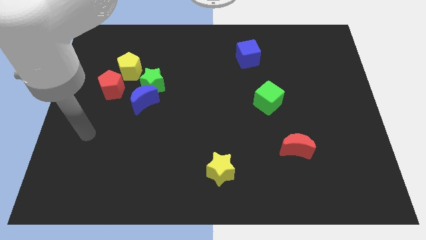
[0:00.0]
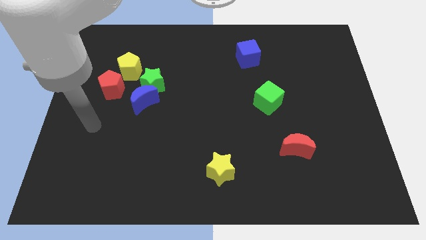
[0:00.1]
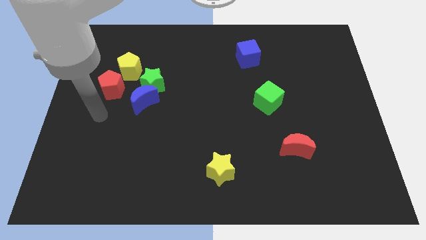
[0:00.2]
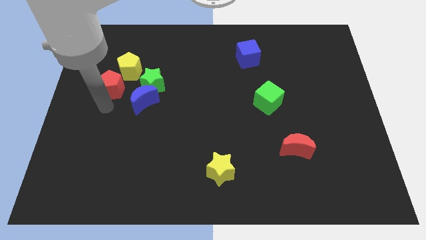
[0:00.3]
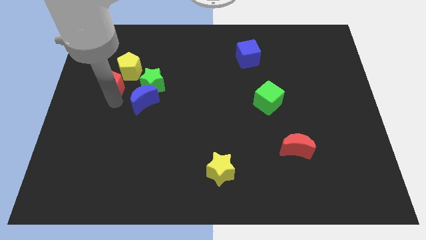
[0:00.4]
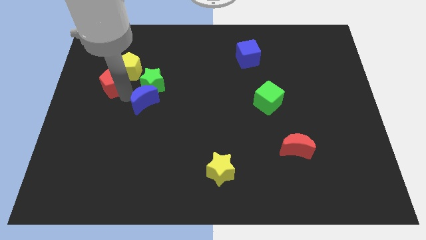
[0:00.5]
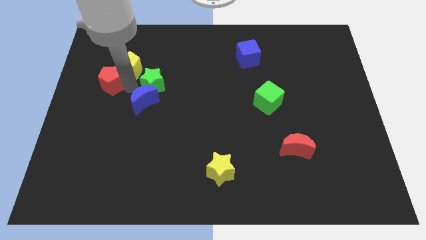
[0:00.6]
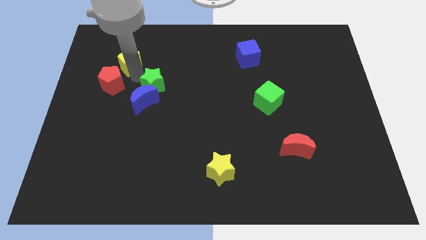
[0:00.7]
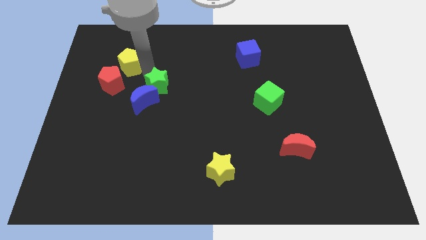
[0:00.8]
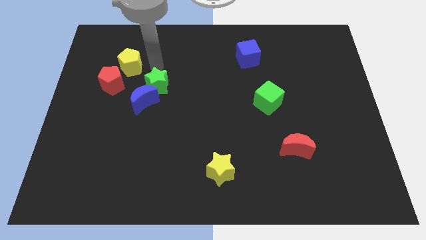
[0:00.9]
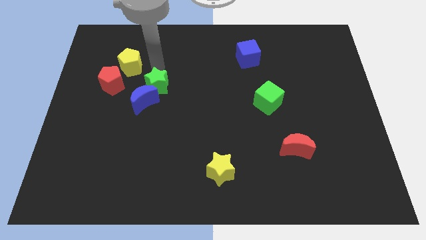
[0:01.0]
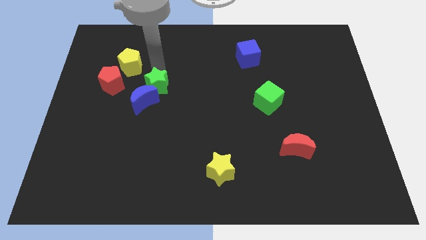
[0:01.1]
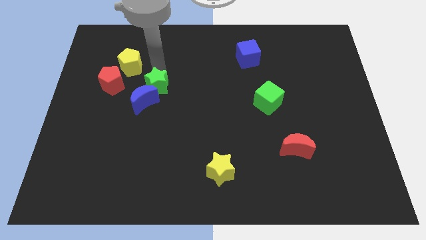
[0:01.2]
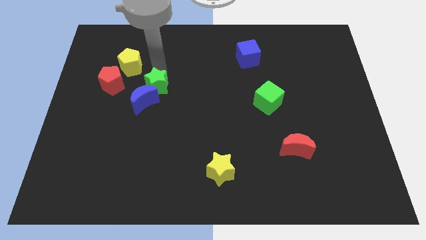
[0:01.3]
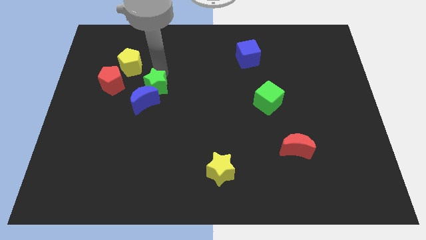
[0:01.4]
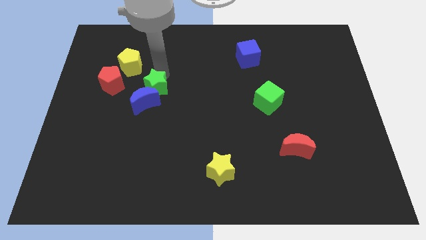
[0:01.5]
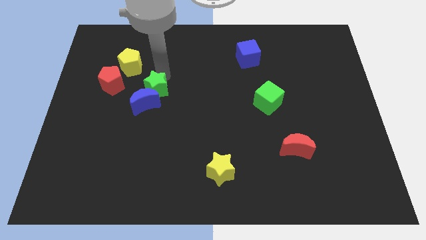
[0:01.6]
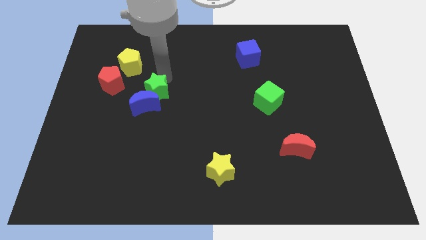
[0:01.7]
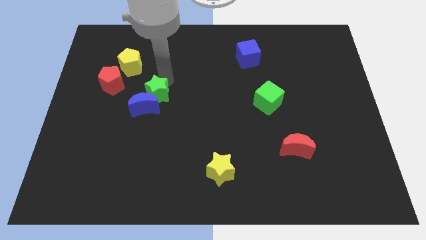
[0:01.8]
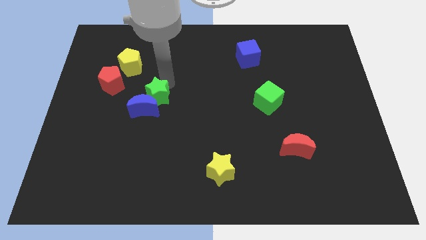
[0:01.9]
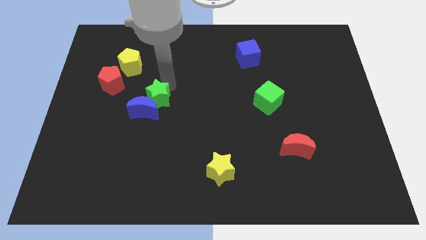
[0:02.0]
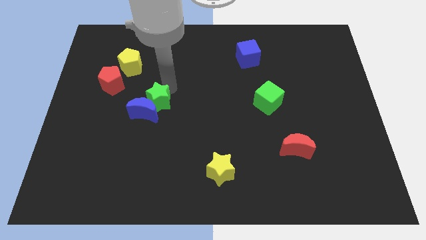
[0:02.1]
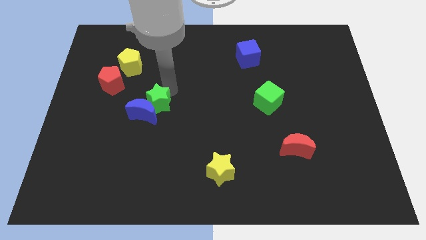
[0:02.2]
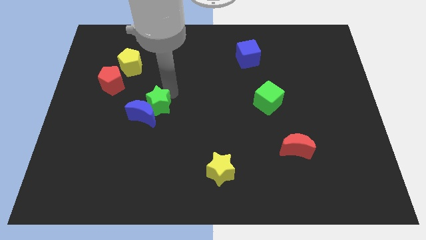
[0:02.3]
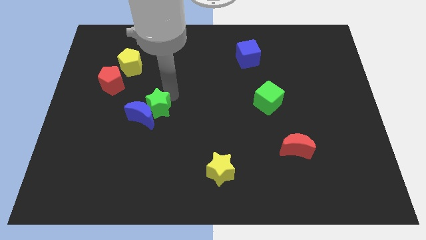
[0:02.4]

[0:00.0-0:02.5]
slightly slide the green star down

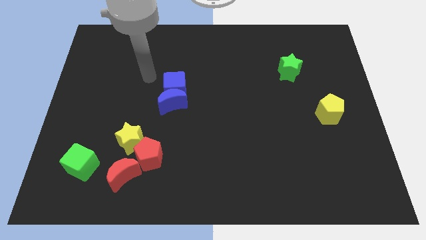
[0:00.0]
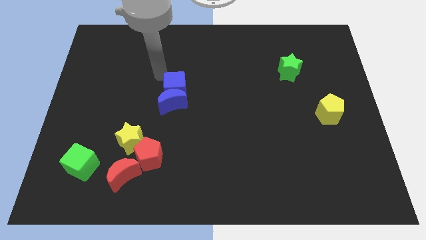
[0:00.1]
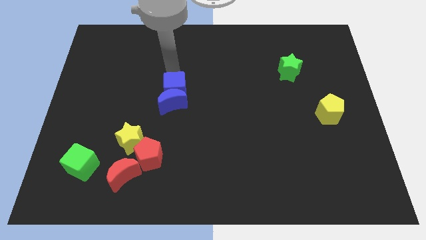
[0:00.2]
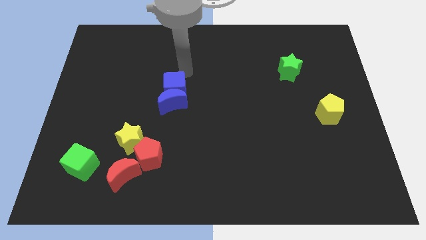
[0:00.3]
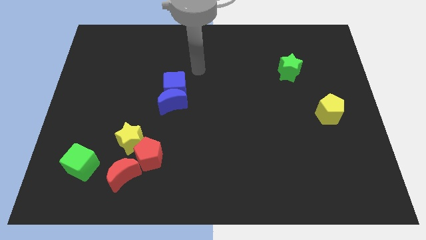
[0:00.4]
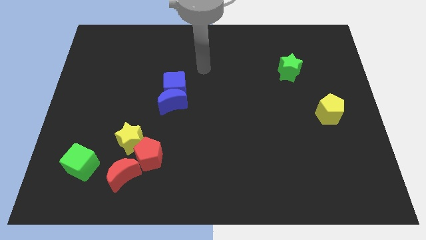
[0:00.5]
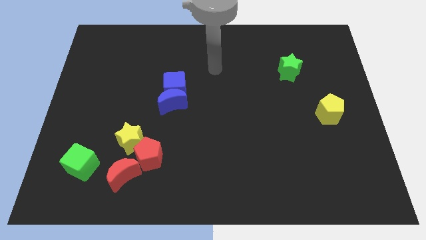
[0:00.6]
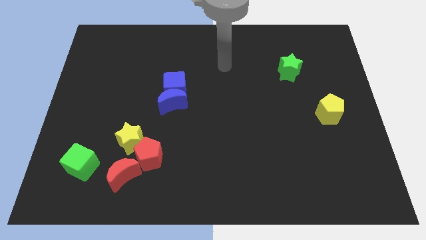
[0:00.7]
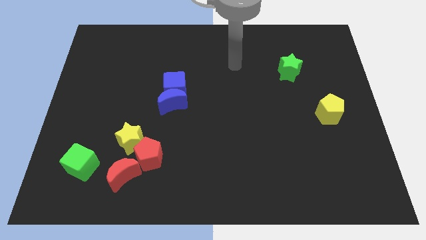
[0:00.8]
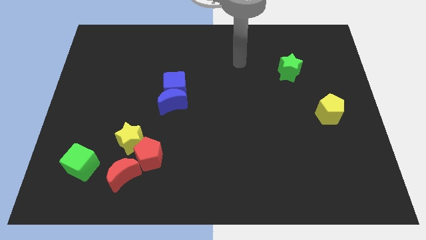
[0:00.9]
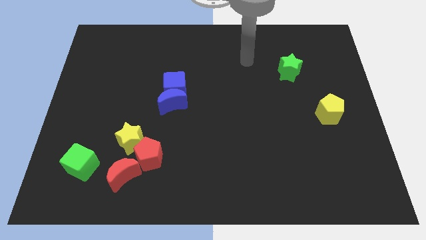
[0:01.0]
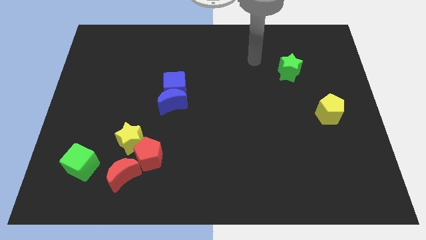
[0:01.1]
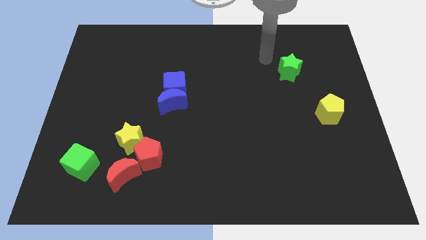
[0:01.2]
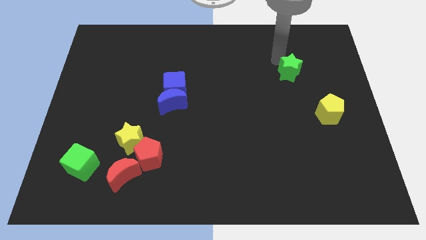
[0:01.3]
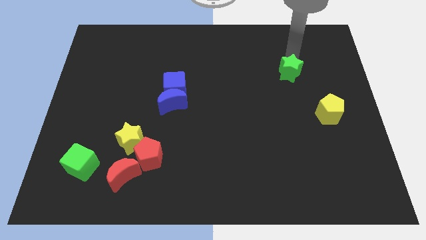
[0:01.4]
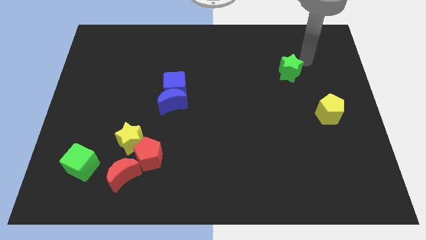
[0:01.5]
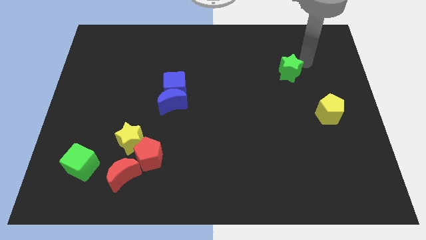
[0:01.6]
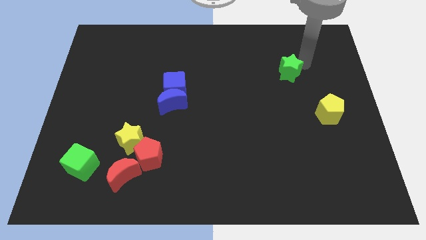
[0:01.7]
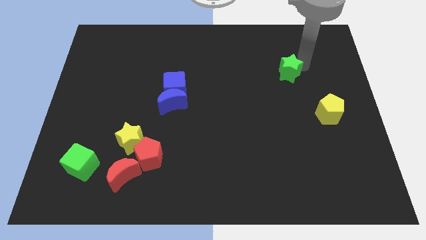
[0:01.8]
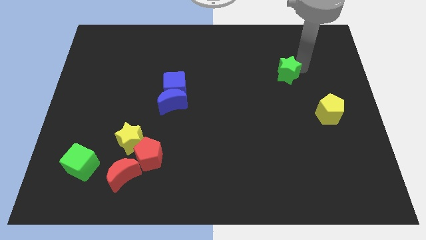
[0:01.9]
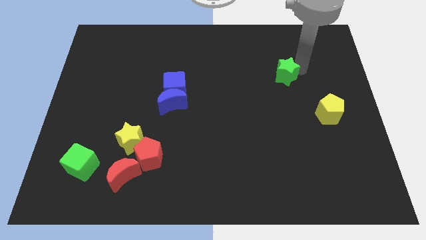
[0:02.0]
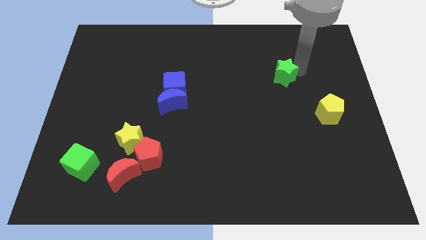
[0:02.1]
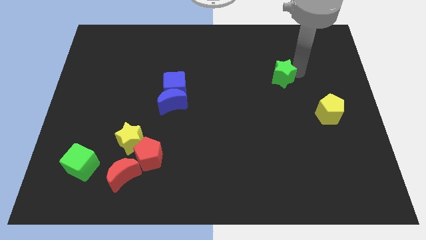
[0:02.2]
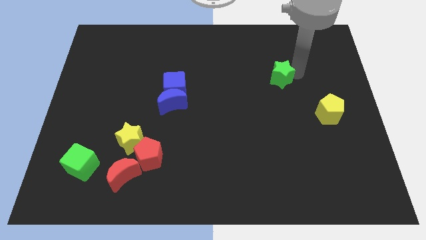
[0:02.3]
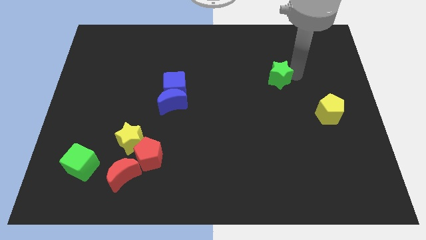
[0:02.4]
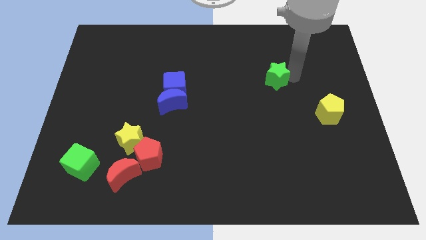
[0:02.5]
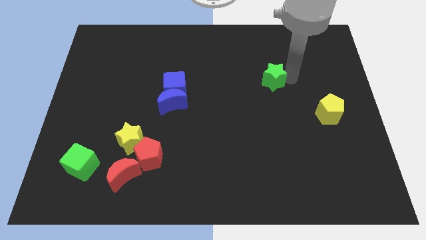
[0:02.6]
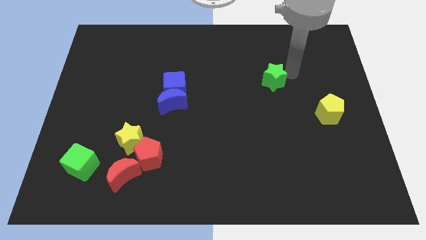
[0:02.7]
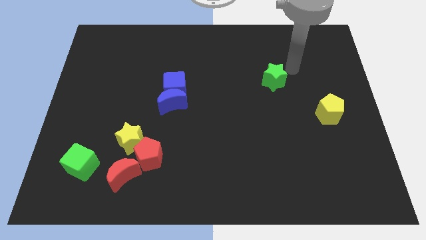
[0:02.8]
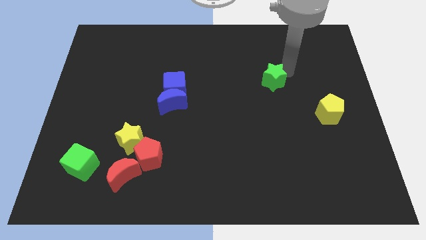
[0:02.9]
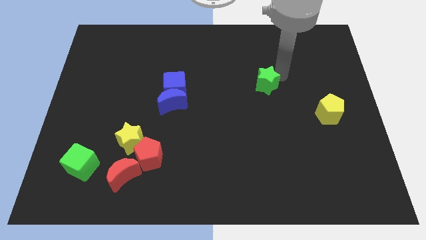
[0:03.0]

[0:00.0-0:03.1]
slightly move the green star downwards and left

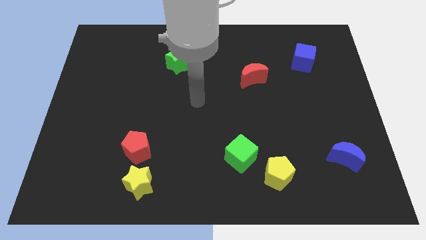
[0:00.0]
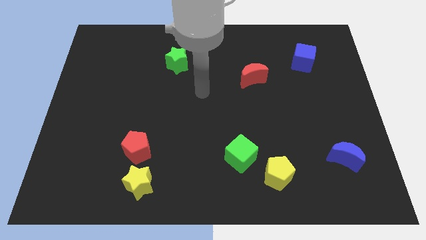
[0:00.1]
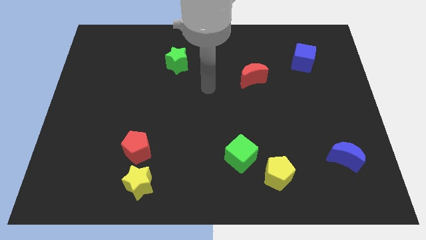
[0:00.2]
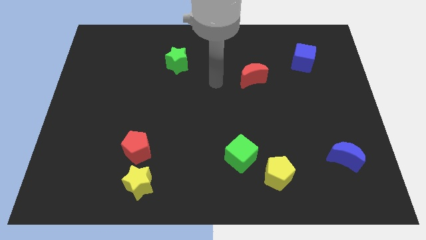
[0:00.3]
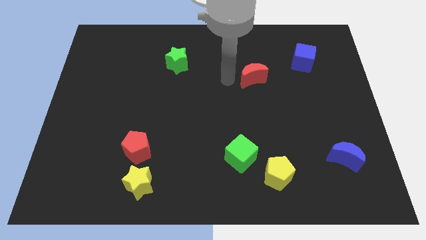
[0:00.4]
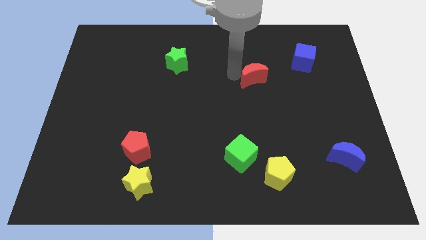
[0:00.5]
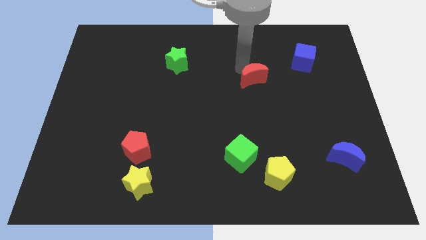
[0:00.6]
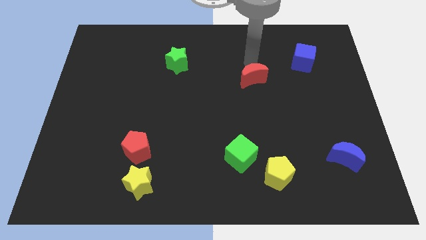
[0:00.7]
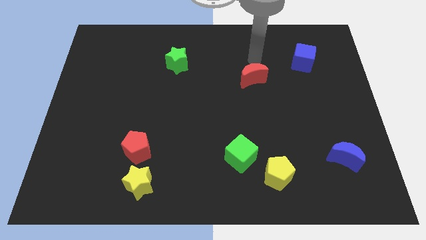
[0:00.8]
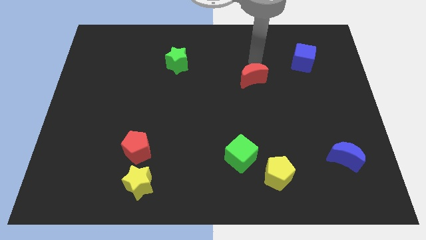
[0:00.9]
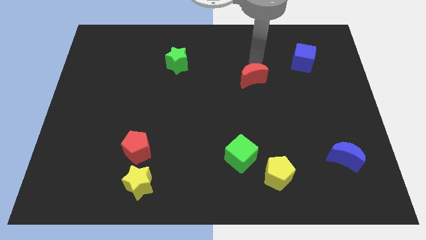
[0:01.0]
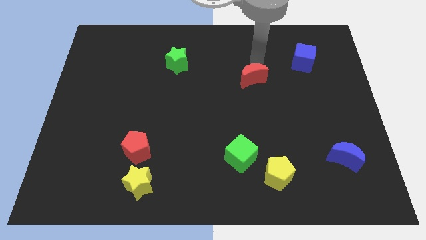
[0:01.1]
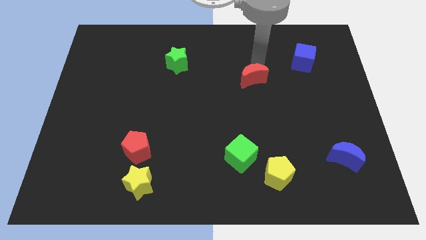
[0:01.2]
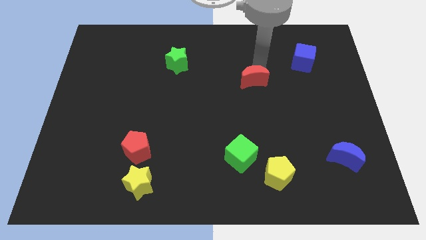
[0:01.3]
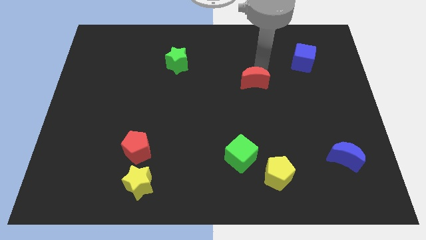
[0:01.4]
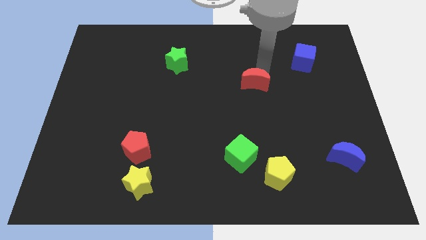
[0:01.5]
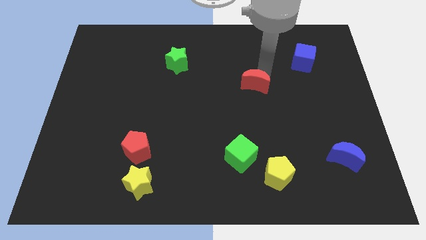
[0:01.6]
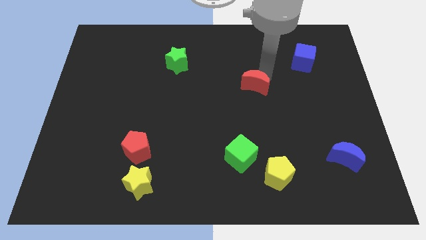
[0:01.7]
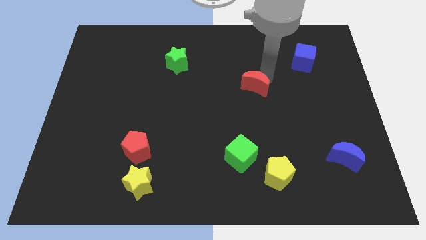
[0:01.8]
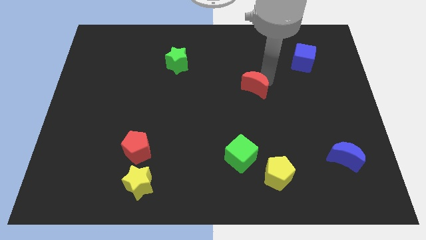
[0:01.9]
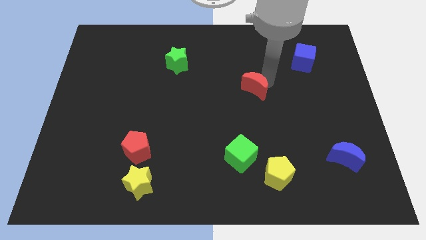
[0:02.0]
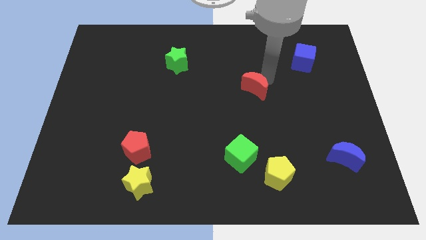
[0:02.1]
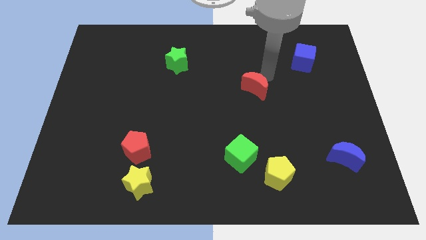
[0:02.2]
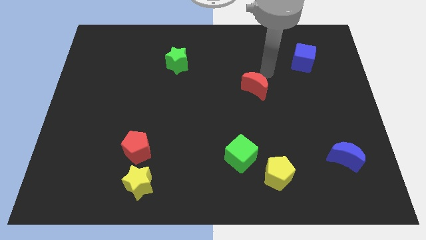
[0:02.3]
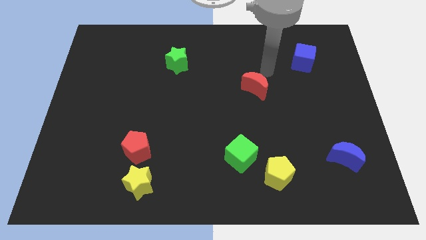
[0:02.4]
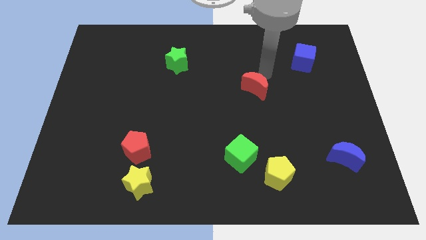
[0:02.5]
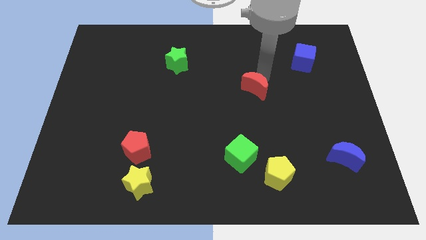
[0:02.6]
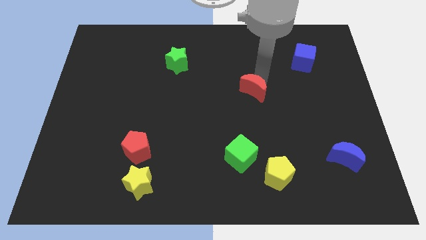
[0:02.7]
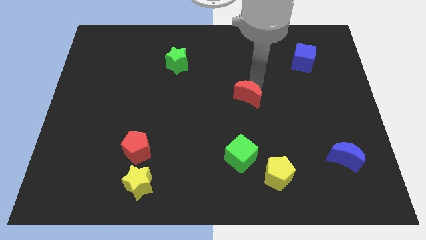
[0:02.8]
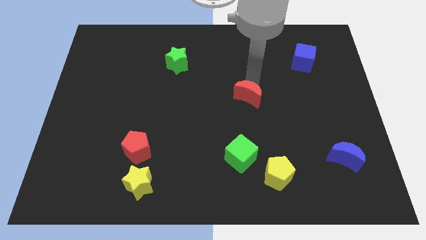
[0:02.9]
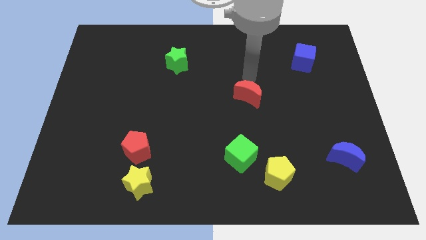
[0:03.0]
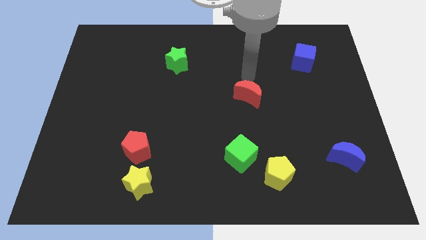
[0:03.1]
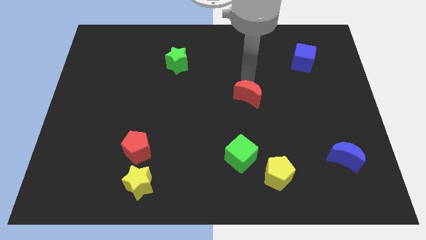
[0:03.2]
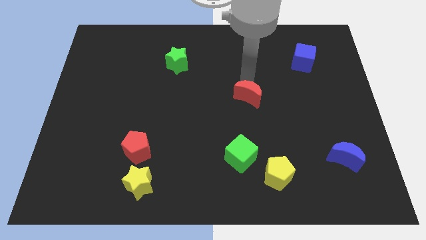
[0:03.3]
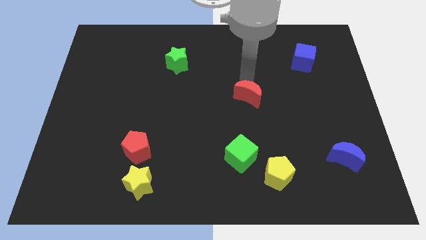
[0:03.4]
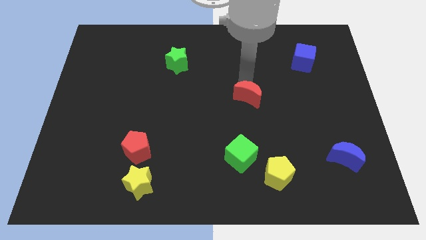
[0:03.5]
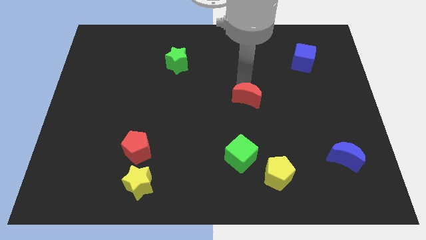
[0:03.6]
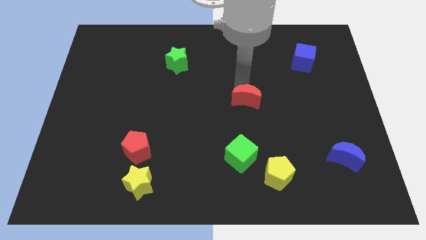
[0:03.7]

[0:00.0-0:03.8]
slide the red moon downwards slightly
